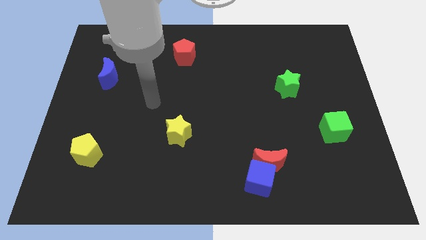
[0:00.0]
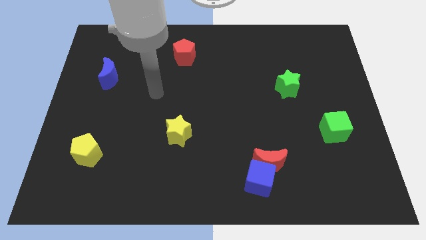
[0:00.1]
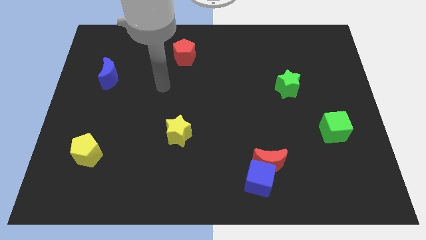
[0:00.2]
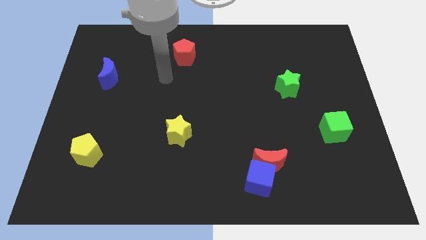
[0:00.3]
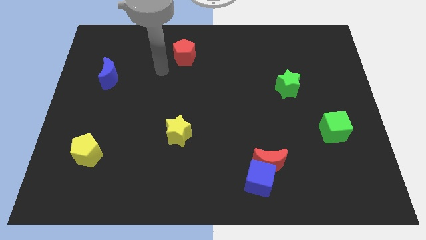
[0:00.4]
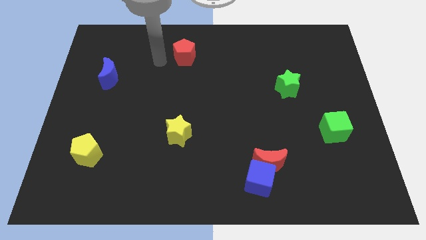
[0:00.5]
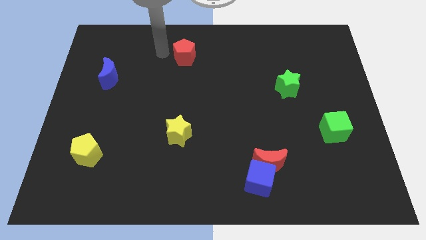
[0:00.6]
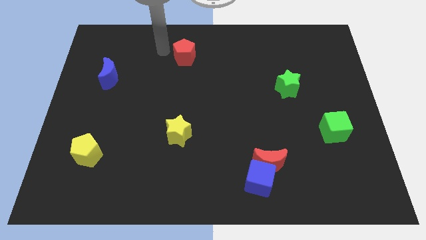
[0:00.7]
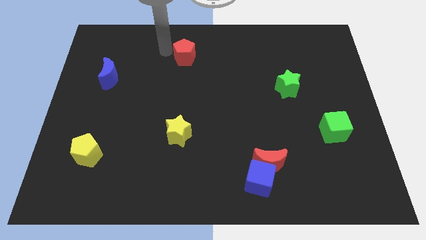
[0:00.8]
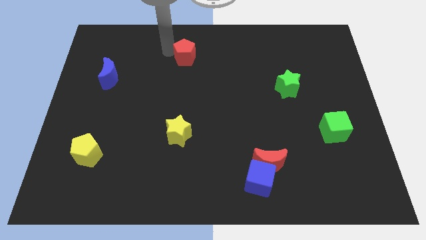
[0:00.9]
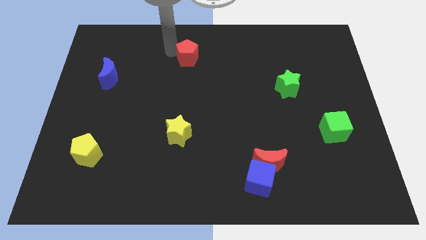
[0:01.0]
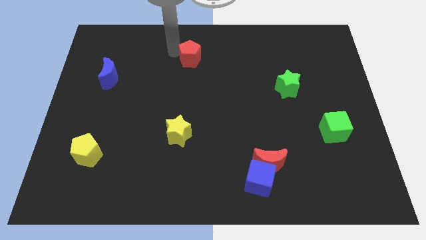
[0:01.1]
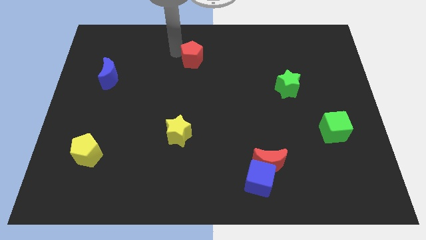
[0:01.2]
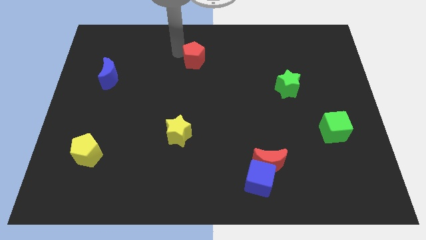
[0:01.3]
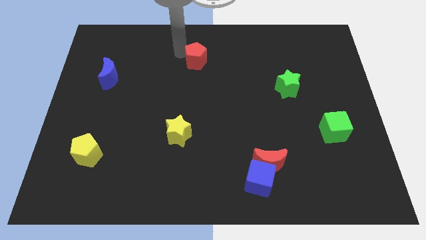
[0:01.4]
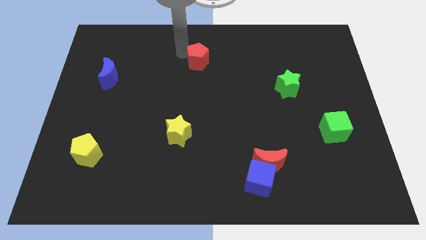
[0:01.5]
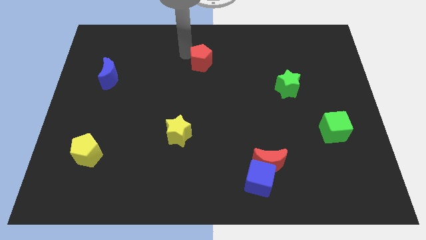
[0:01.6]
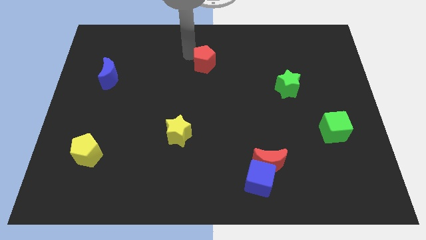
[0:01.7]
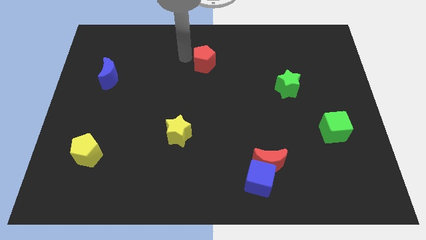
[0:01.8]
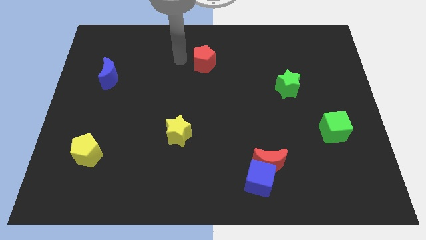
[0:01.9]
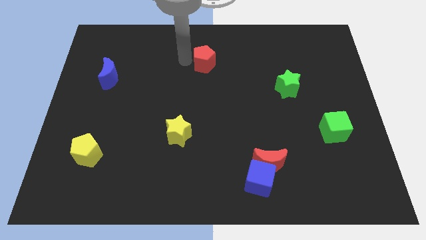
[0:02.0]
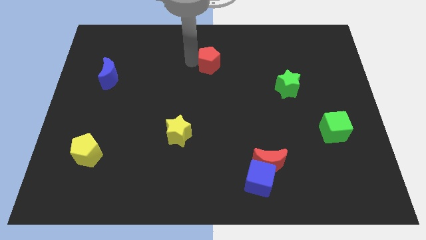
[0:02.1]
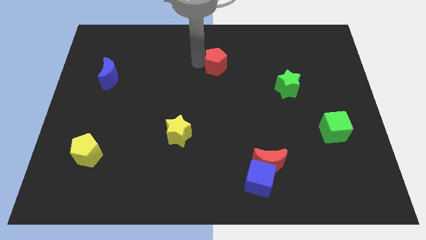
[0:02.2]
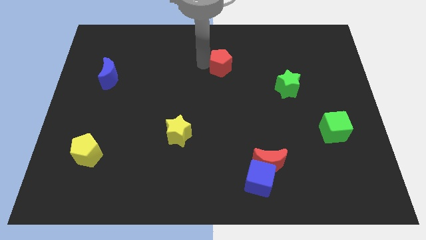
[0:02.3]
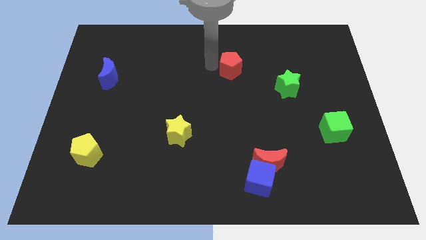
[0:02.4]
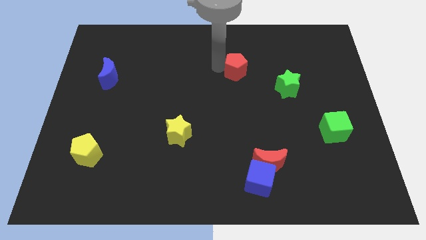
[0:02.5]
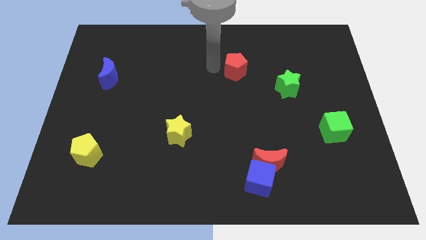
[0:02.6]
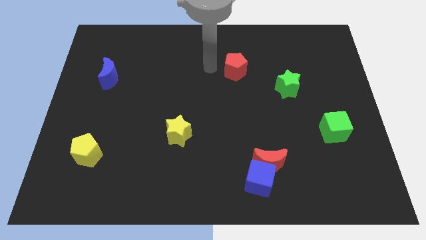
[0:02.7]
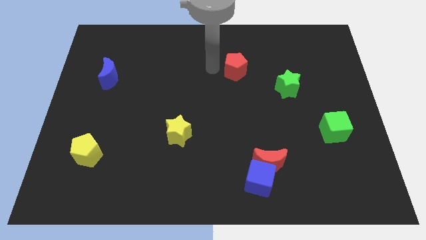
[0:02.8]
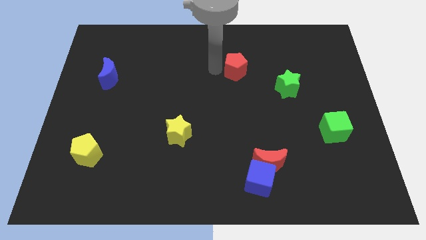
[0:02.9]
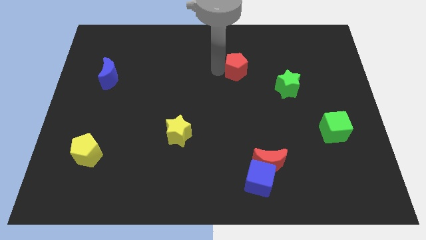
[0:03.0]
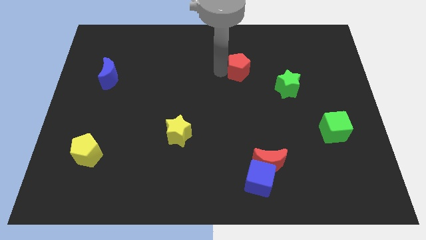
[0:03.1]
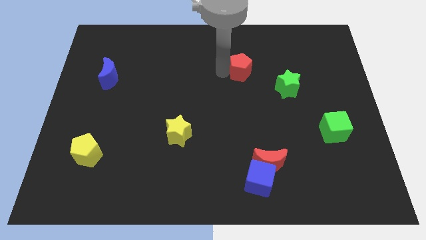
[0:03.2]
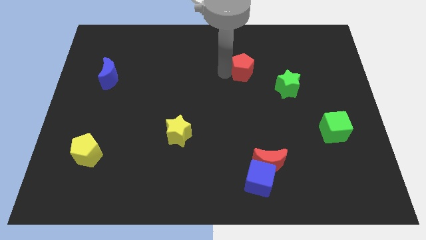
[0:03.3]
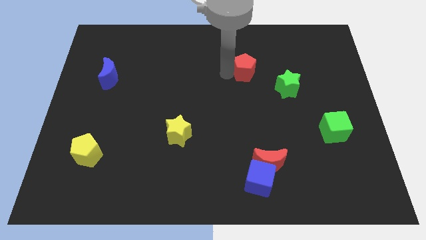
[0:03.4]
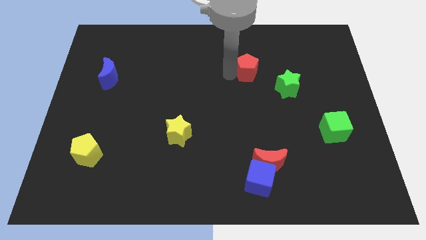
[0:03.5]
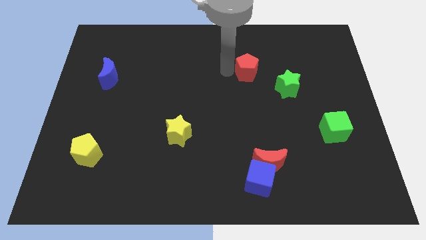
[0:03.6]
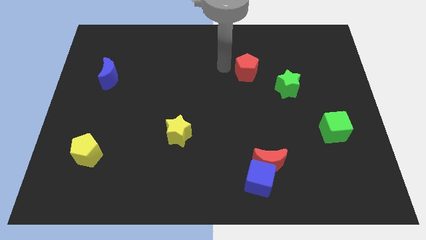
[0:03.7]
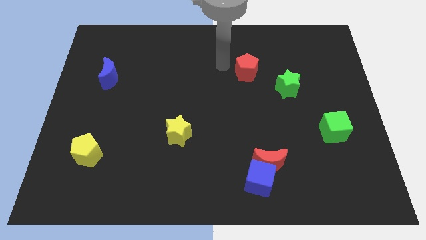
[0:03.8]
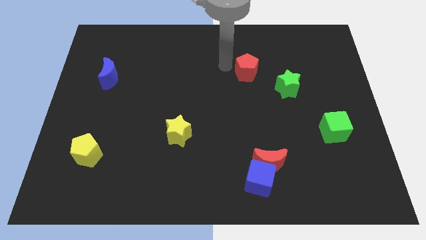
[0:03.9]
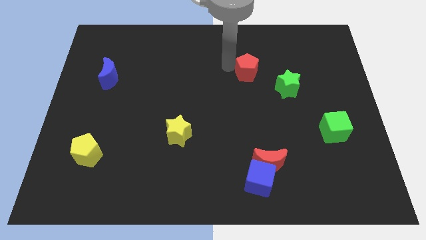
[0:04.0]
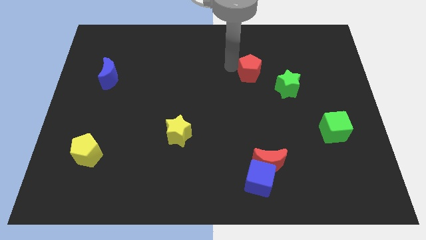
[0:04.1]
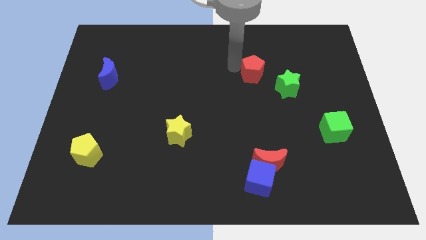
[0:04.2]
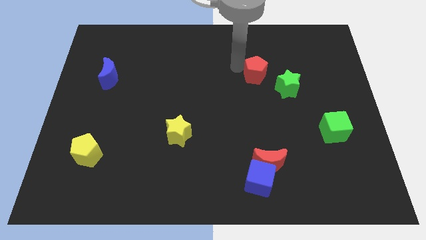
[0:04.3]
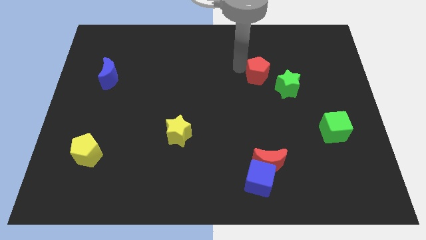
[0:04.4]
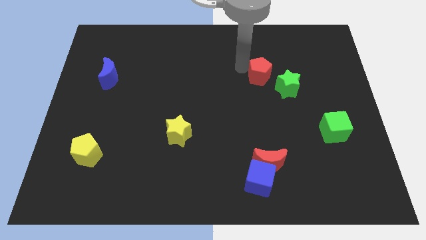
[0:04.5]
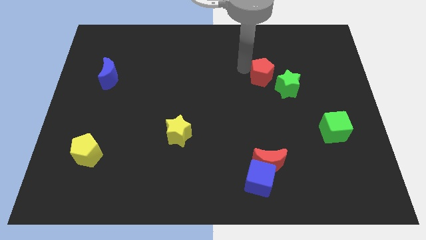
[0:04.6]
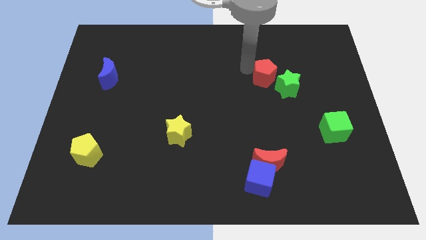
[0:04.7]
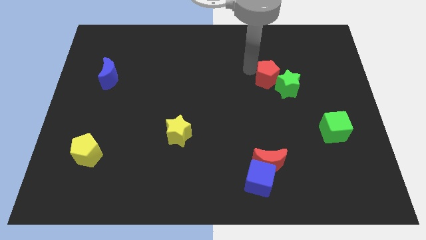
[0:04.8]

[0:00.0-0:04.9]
move the red pentagon to the green star

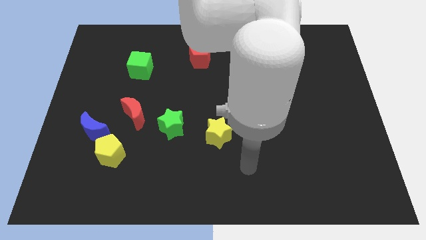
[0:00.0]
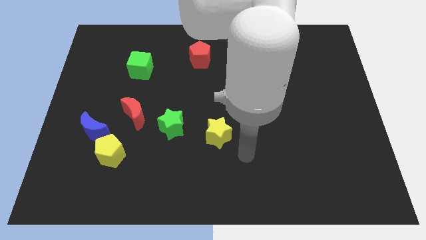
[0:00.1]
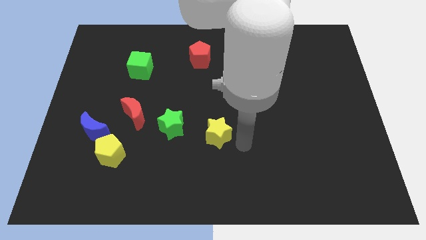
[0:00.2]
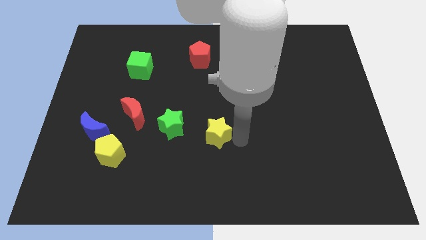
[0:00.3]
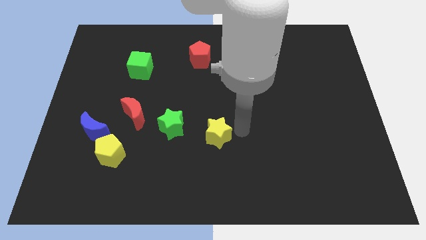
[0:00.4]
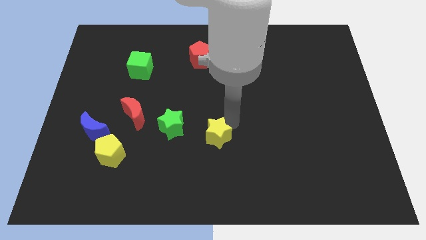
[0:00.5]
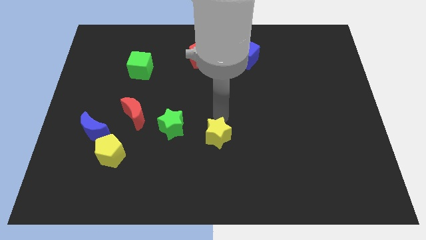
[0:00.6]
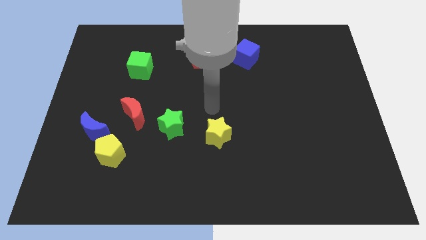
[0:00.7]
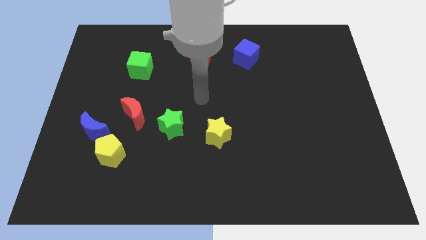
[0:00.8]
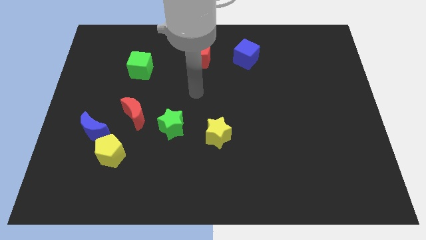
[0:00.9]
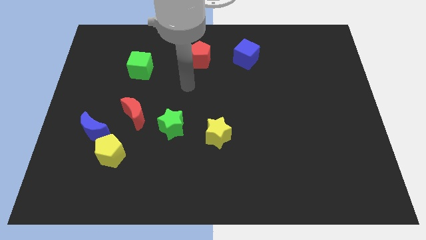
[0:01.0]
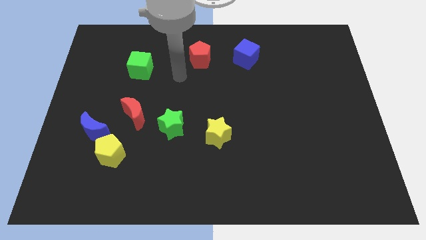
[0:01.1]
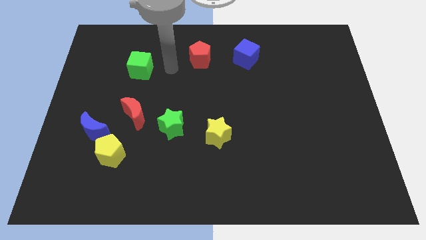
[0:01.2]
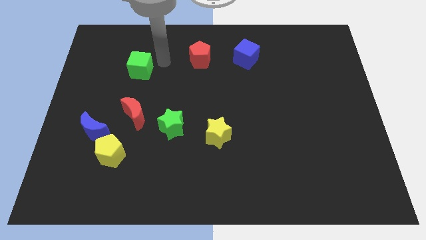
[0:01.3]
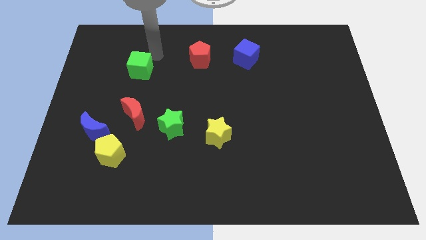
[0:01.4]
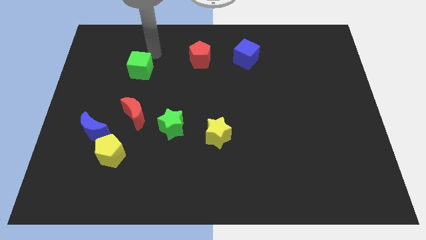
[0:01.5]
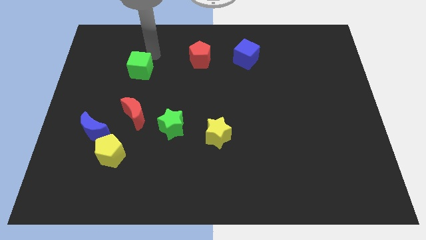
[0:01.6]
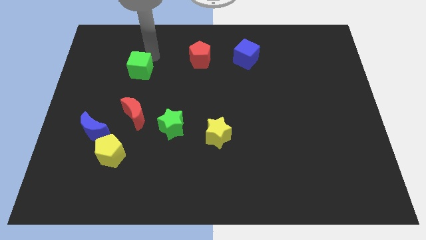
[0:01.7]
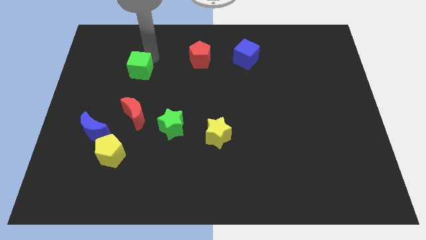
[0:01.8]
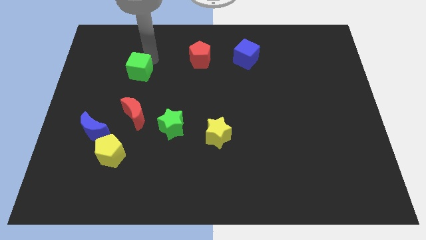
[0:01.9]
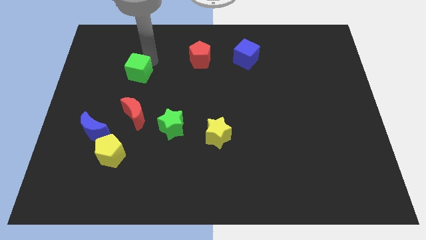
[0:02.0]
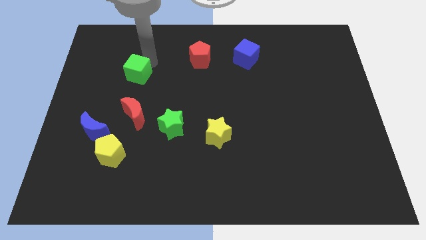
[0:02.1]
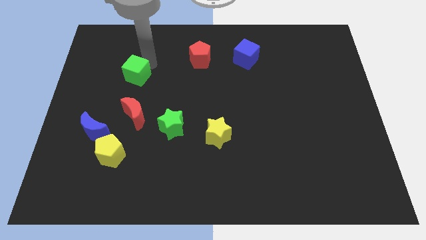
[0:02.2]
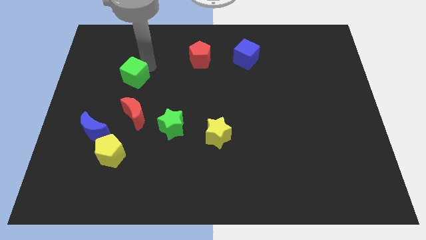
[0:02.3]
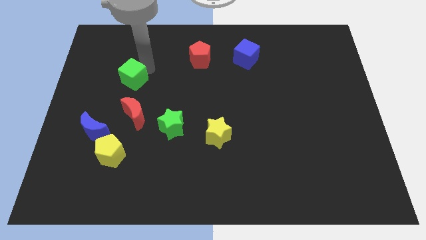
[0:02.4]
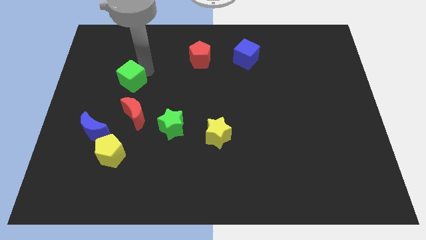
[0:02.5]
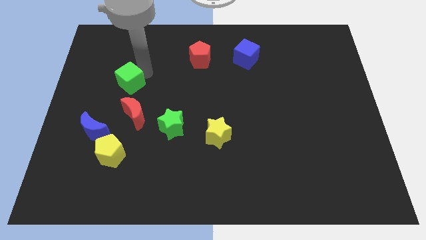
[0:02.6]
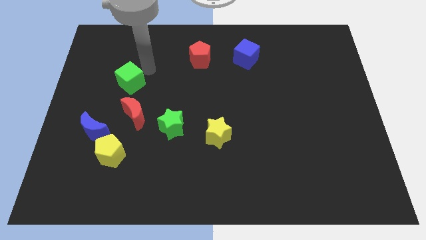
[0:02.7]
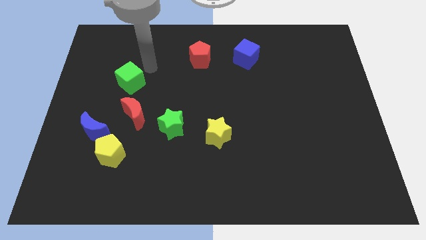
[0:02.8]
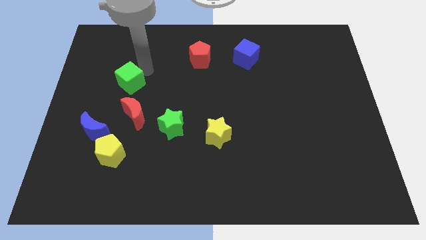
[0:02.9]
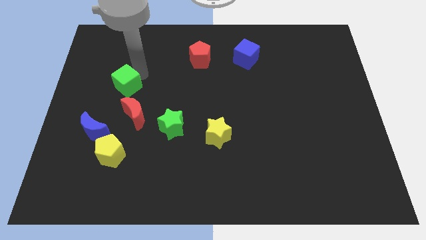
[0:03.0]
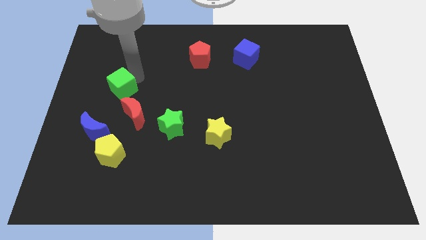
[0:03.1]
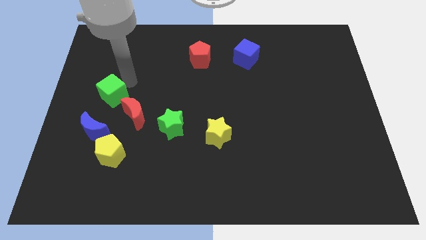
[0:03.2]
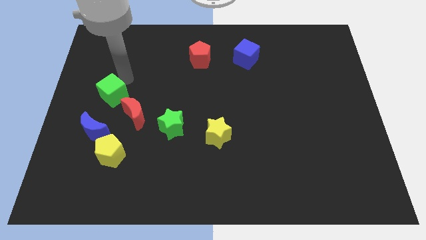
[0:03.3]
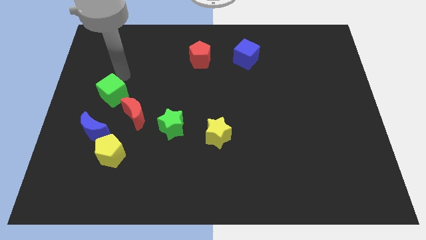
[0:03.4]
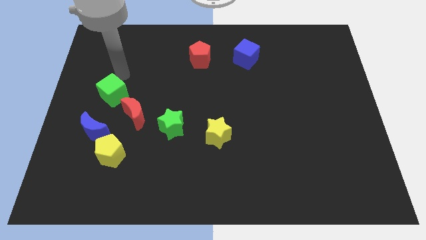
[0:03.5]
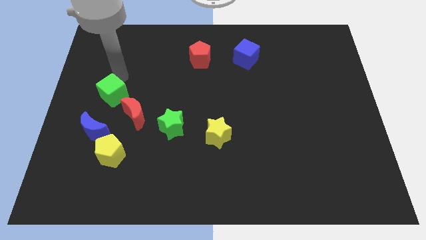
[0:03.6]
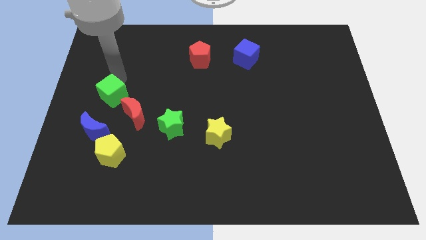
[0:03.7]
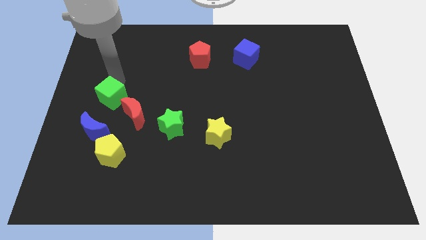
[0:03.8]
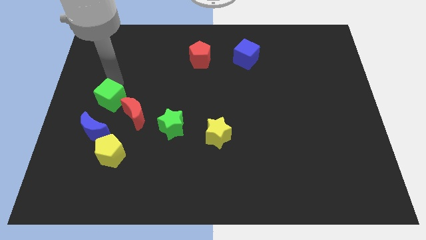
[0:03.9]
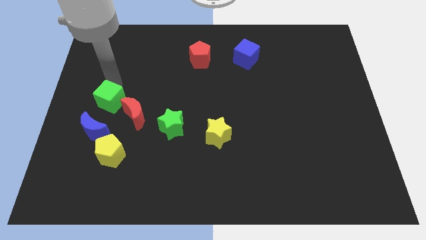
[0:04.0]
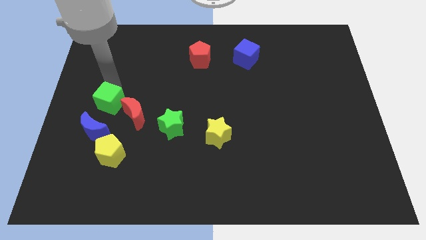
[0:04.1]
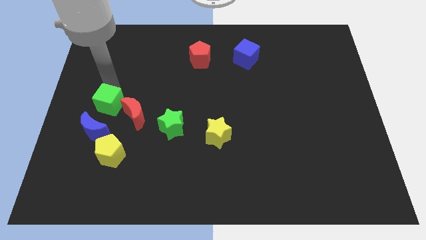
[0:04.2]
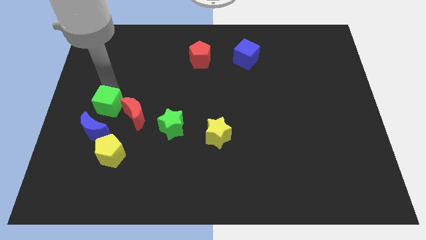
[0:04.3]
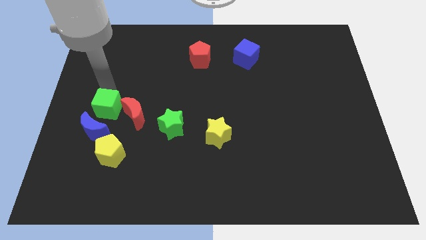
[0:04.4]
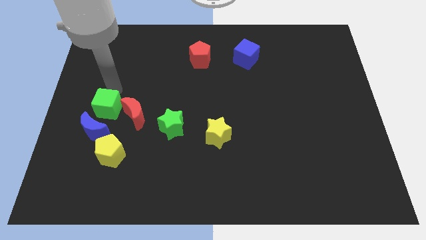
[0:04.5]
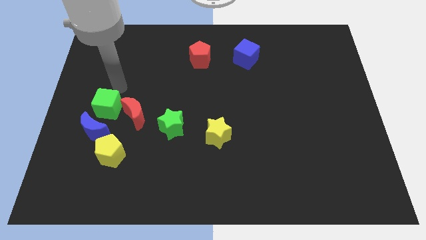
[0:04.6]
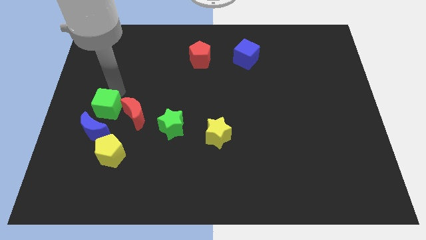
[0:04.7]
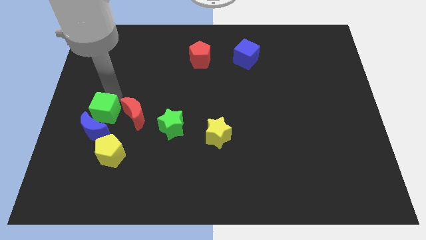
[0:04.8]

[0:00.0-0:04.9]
move the green cube to the blue moon
